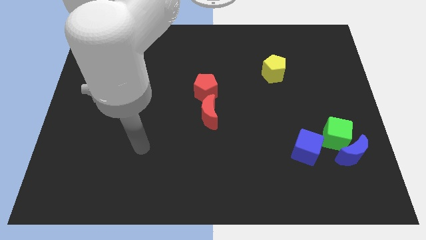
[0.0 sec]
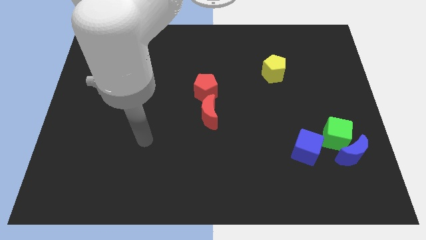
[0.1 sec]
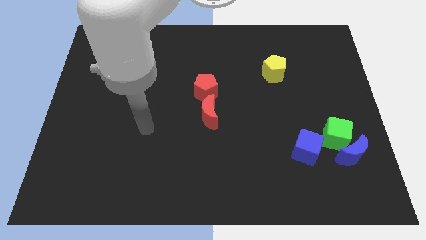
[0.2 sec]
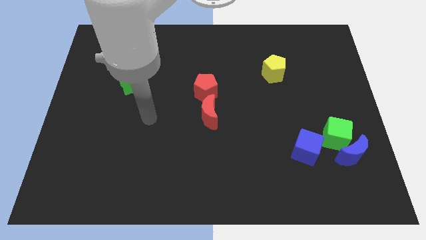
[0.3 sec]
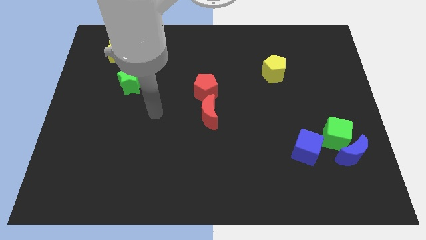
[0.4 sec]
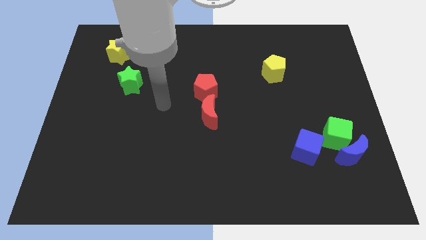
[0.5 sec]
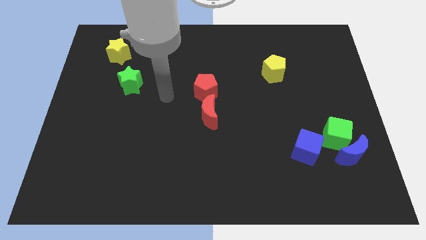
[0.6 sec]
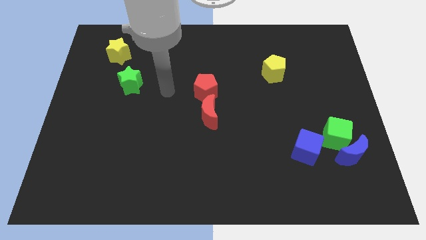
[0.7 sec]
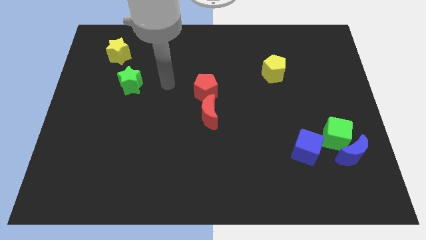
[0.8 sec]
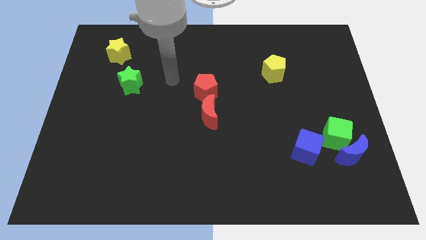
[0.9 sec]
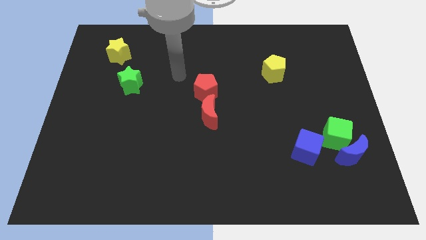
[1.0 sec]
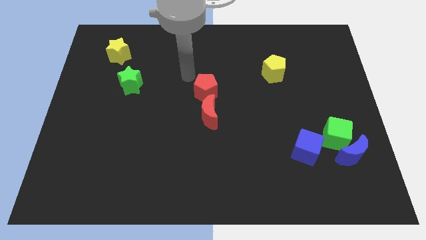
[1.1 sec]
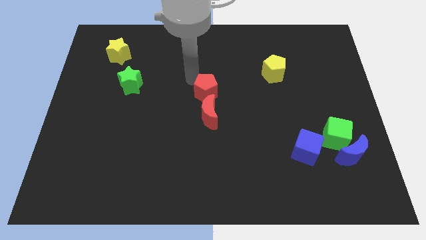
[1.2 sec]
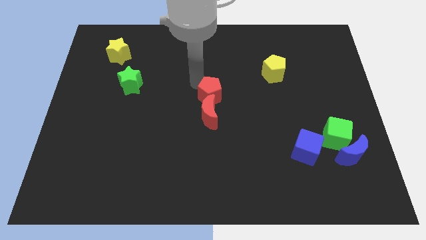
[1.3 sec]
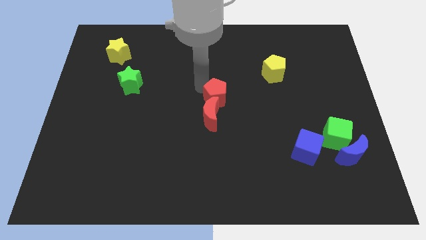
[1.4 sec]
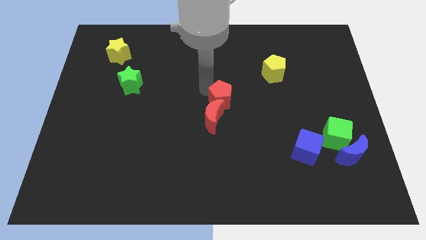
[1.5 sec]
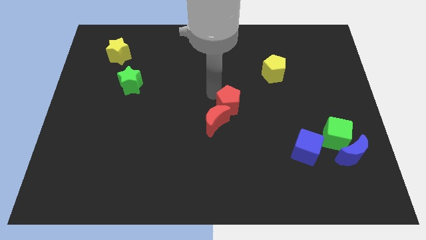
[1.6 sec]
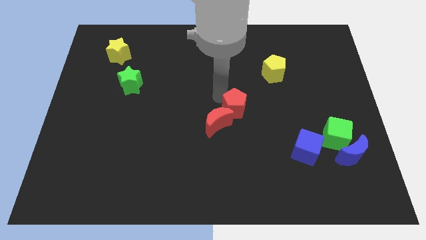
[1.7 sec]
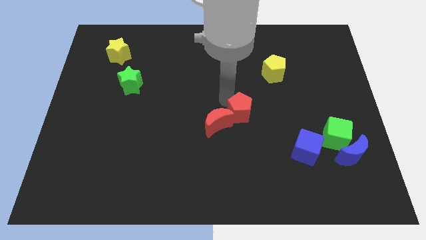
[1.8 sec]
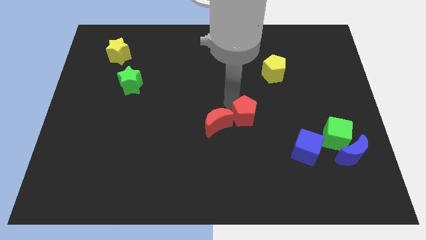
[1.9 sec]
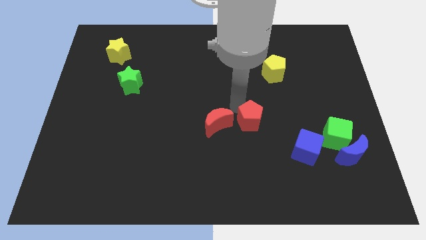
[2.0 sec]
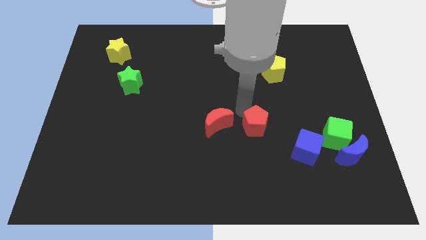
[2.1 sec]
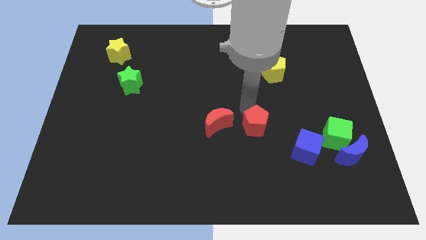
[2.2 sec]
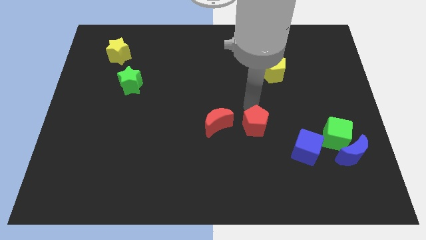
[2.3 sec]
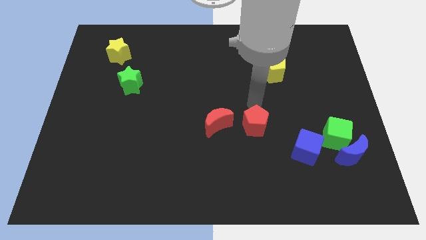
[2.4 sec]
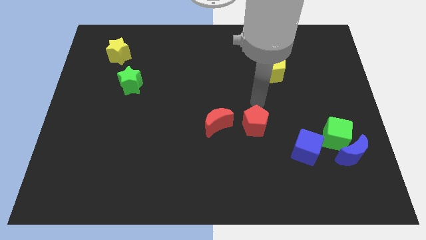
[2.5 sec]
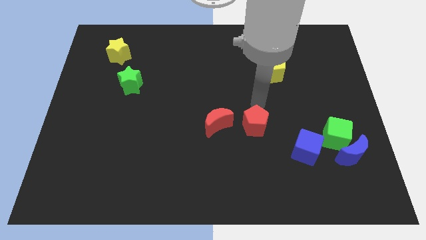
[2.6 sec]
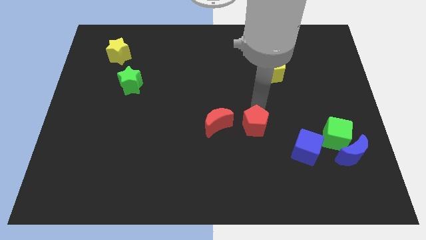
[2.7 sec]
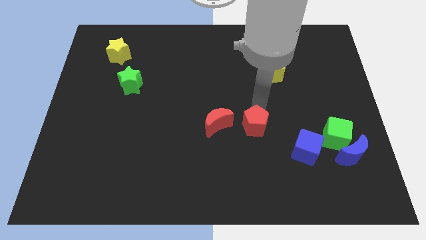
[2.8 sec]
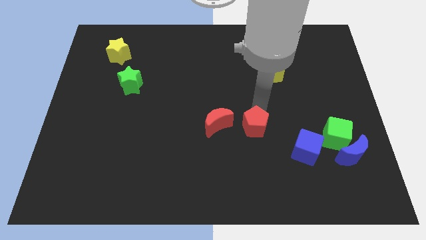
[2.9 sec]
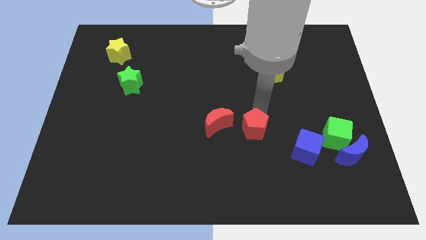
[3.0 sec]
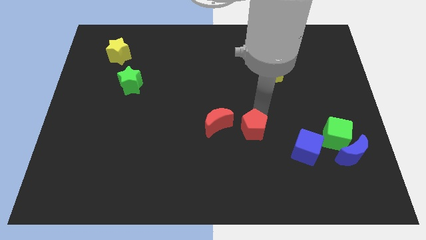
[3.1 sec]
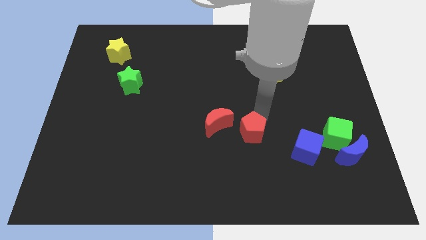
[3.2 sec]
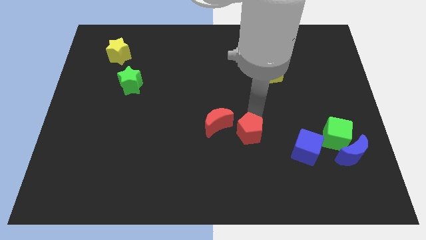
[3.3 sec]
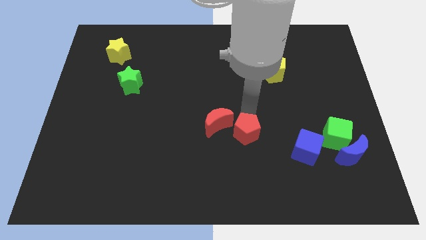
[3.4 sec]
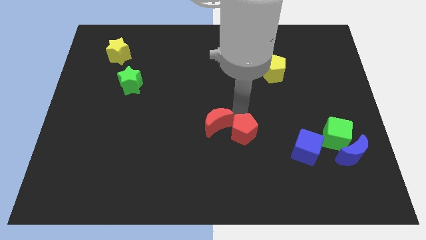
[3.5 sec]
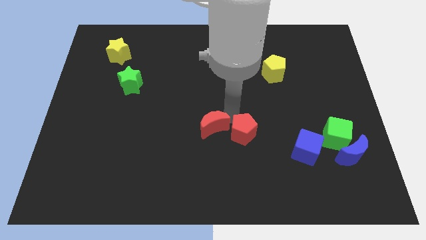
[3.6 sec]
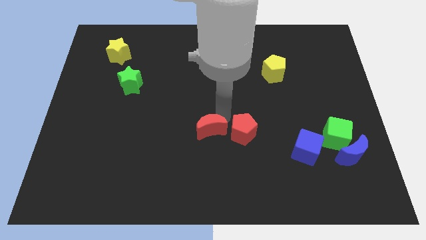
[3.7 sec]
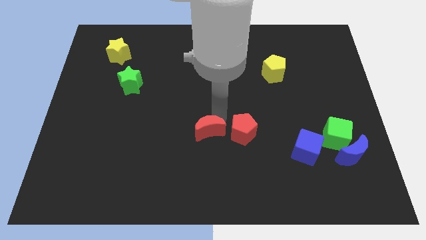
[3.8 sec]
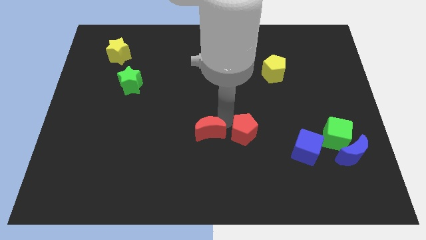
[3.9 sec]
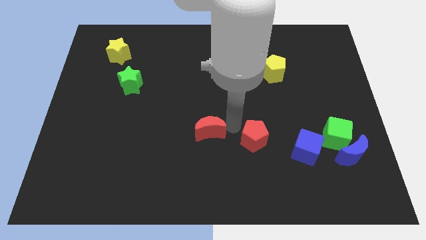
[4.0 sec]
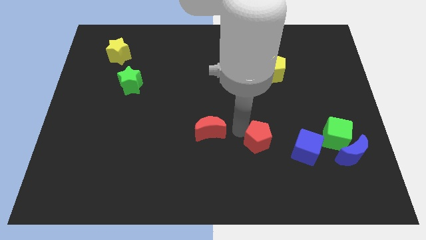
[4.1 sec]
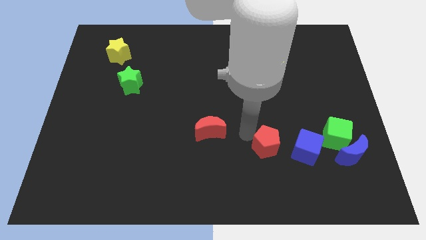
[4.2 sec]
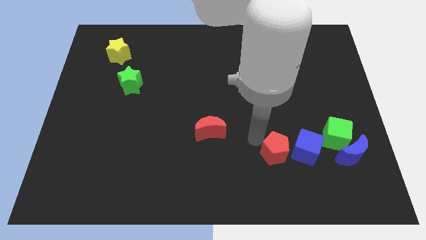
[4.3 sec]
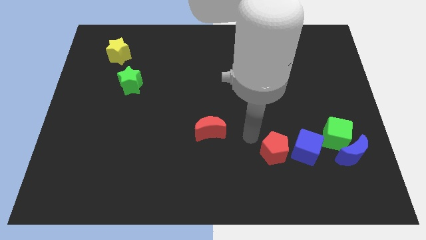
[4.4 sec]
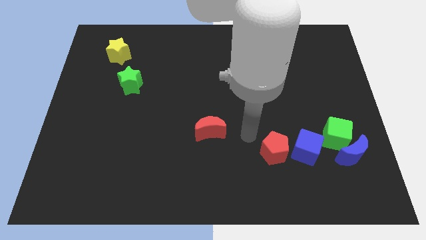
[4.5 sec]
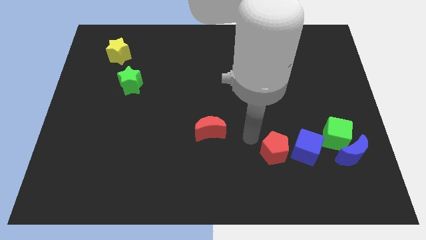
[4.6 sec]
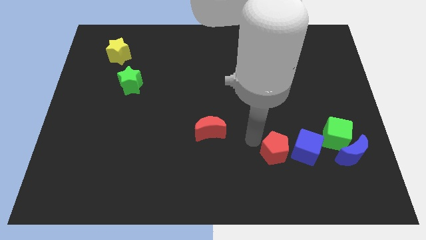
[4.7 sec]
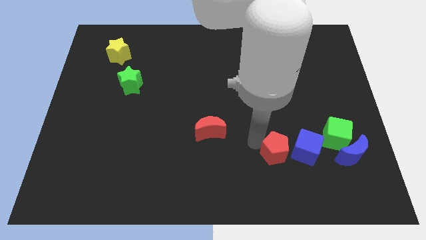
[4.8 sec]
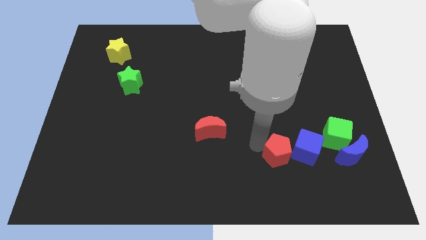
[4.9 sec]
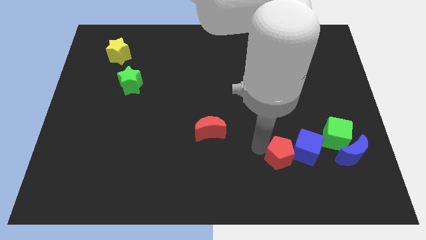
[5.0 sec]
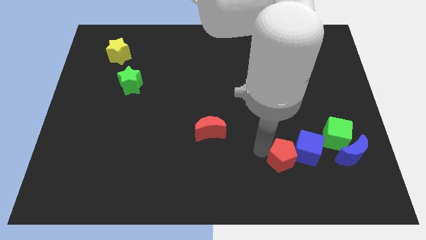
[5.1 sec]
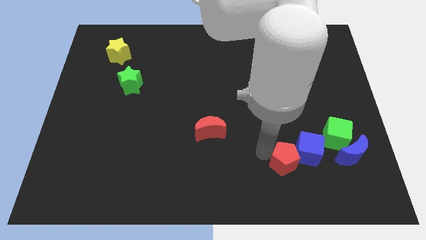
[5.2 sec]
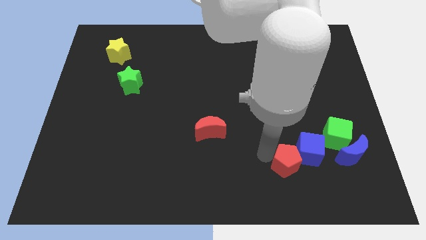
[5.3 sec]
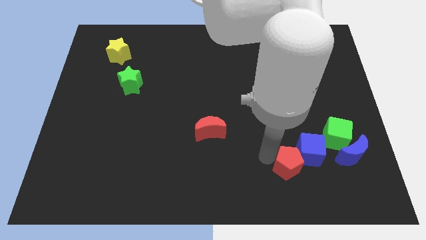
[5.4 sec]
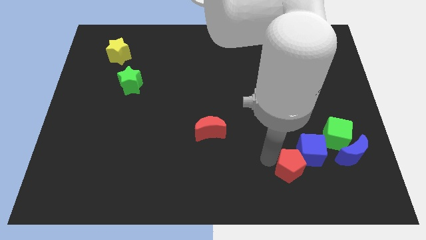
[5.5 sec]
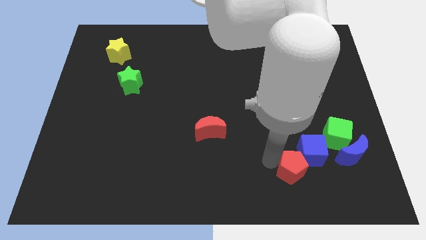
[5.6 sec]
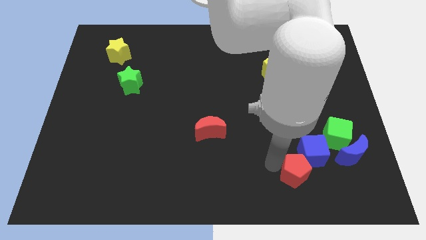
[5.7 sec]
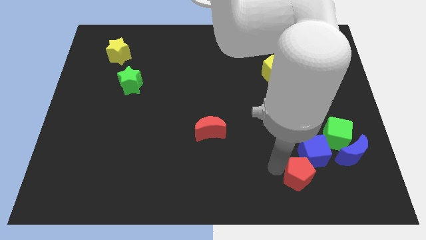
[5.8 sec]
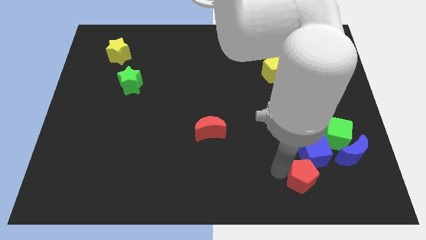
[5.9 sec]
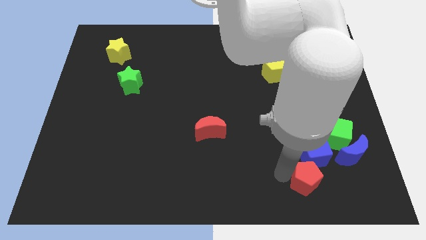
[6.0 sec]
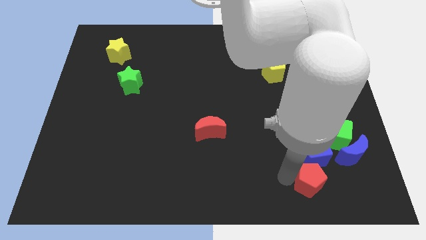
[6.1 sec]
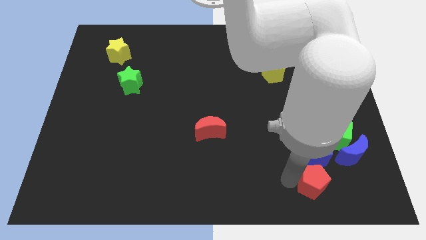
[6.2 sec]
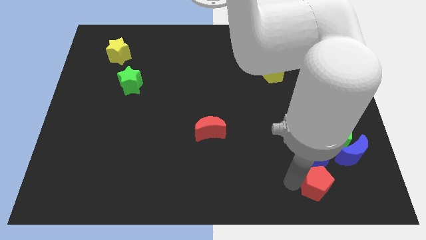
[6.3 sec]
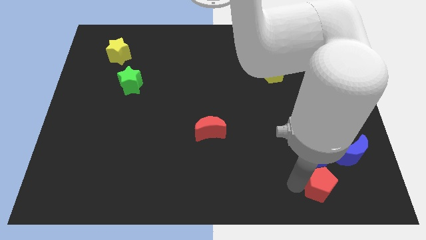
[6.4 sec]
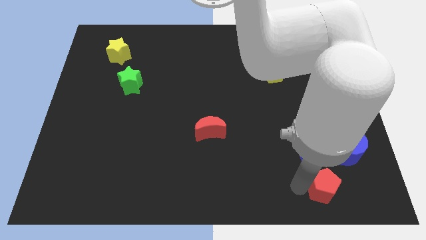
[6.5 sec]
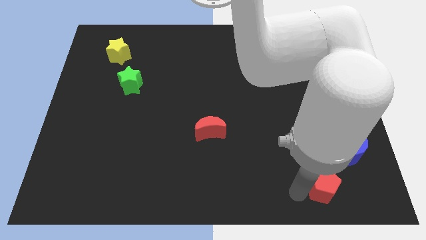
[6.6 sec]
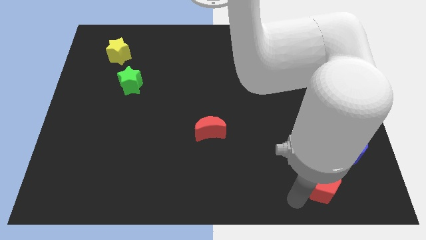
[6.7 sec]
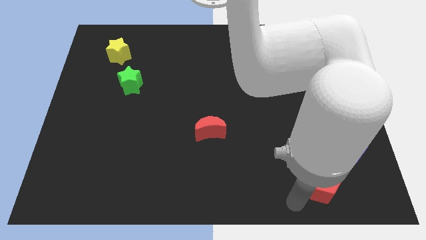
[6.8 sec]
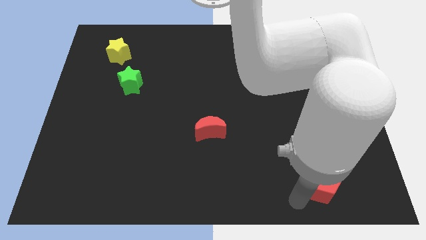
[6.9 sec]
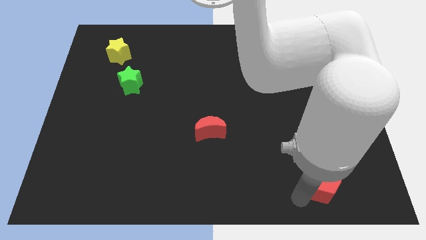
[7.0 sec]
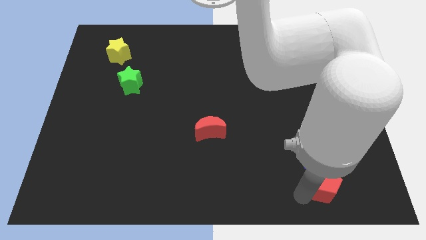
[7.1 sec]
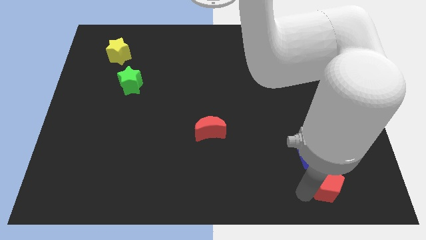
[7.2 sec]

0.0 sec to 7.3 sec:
push the red pentagon diagonally down and to the right of the blue cube
